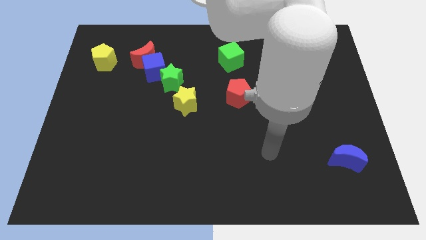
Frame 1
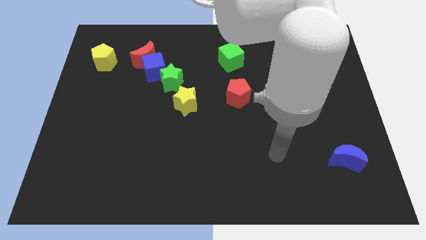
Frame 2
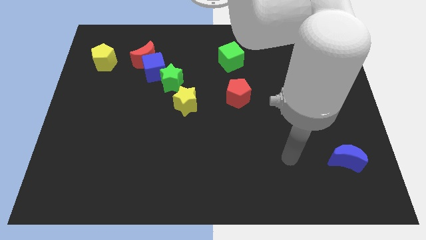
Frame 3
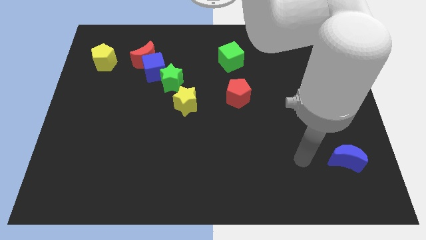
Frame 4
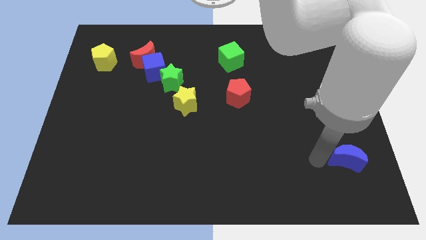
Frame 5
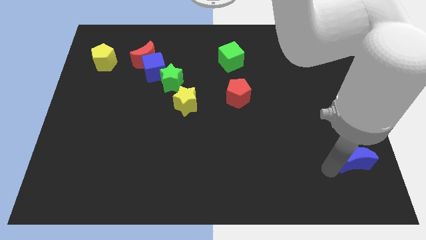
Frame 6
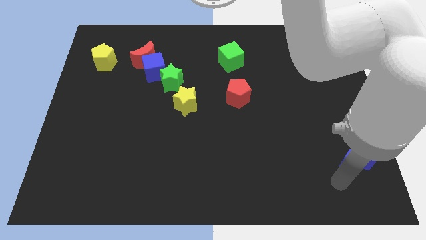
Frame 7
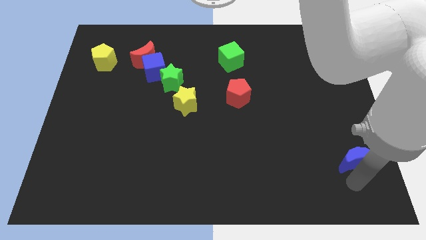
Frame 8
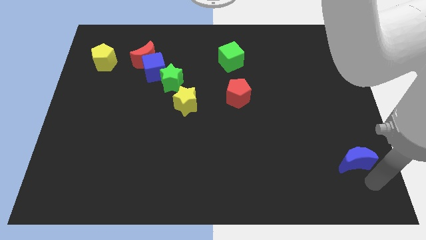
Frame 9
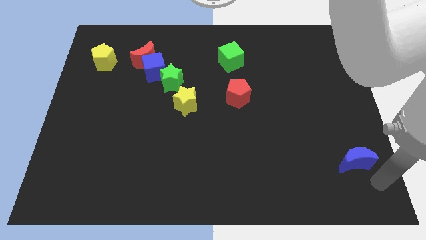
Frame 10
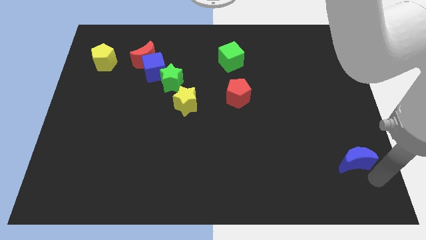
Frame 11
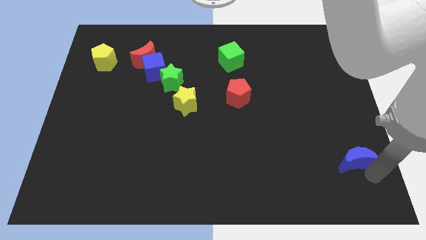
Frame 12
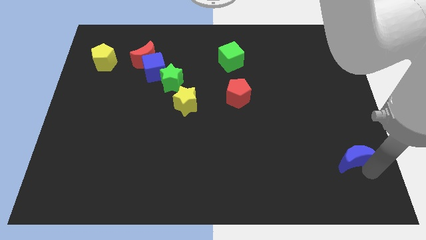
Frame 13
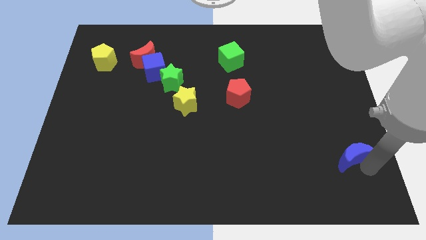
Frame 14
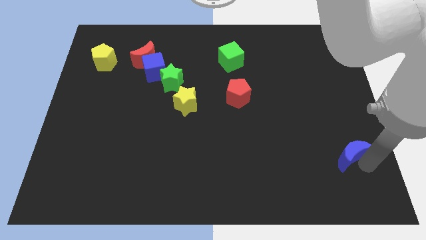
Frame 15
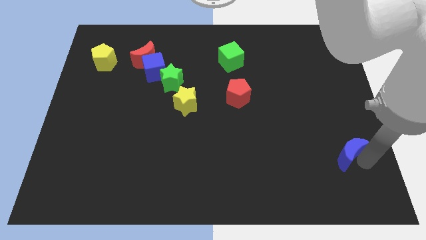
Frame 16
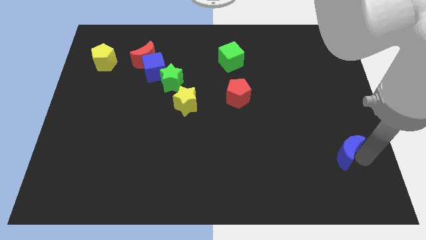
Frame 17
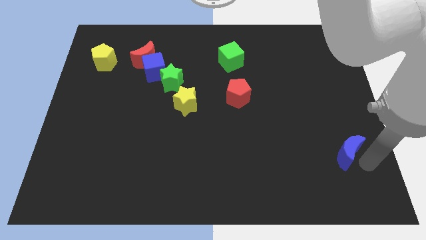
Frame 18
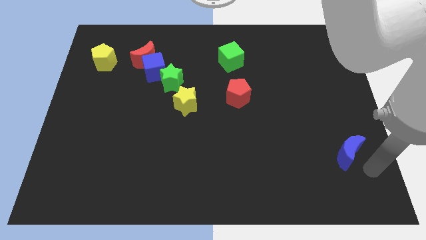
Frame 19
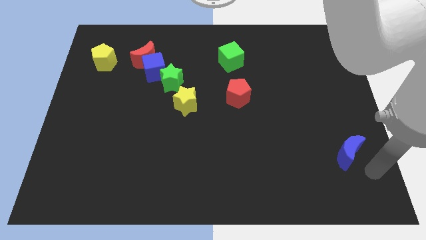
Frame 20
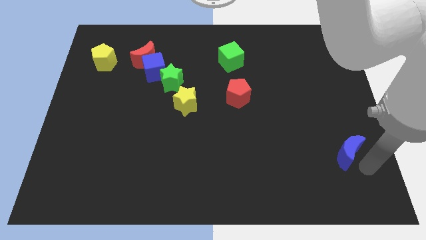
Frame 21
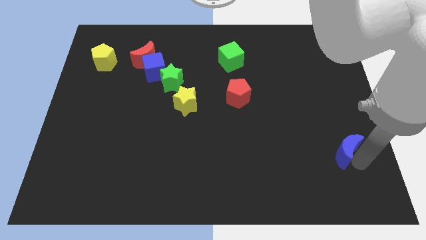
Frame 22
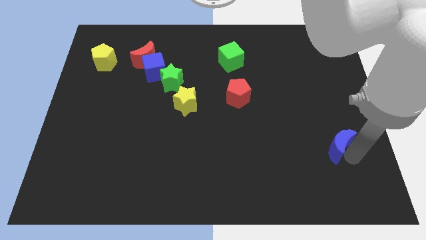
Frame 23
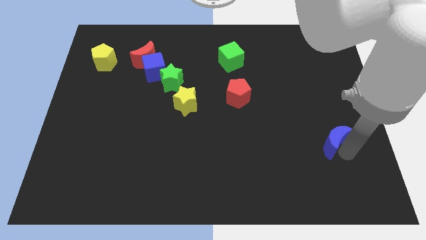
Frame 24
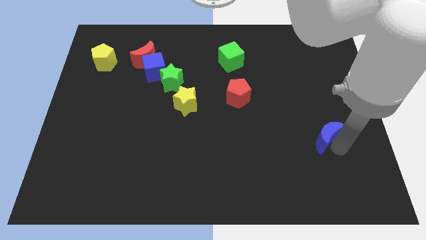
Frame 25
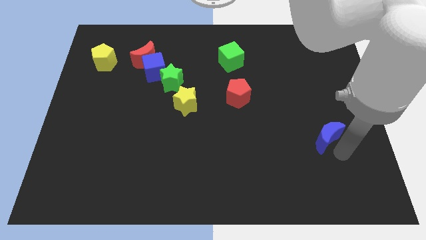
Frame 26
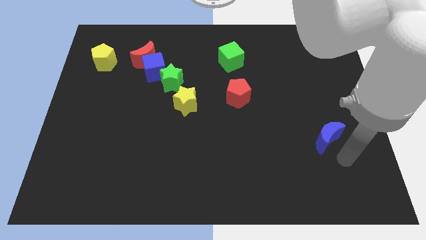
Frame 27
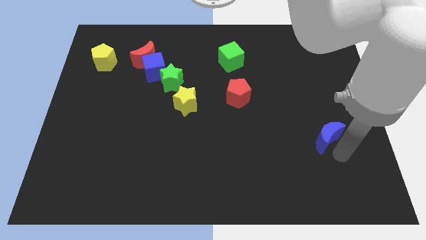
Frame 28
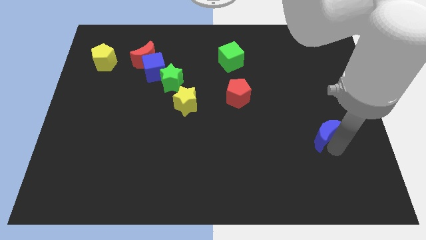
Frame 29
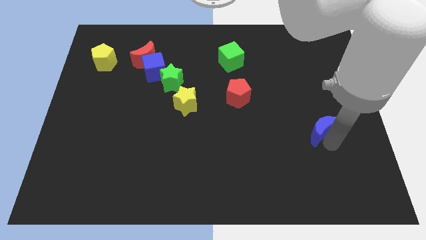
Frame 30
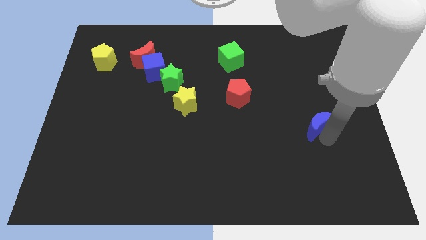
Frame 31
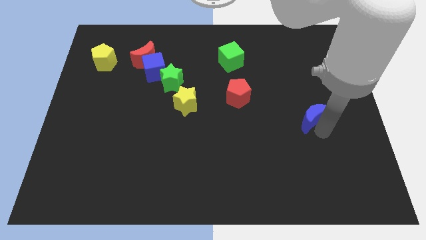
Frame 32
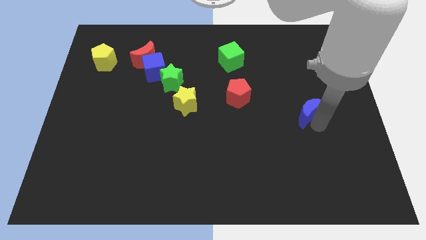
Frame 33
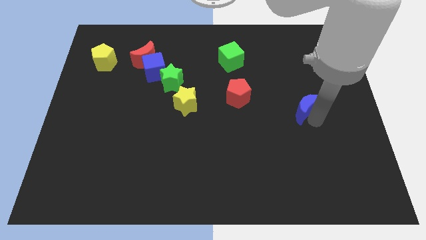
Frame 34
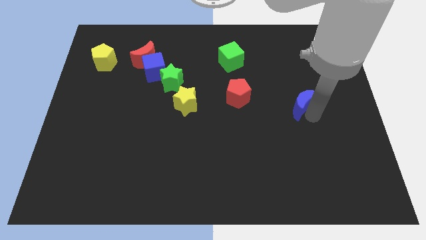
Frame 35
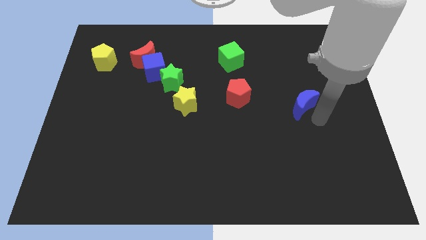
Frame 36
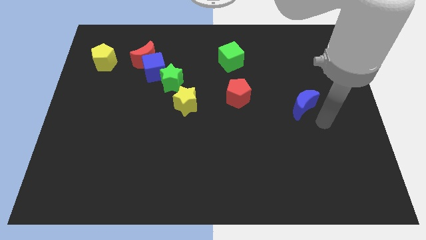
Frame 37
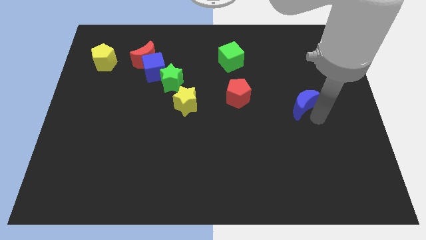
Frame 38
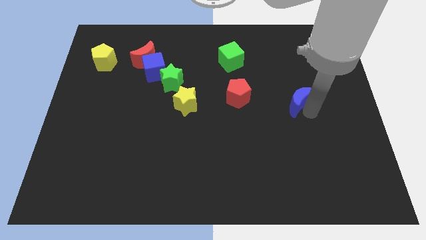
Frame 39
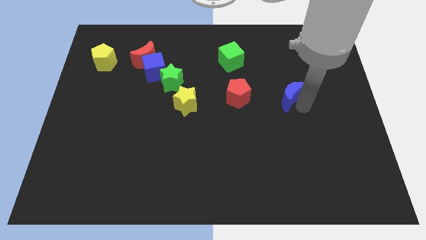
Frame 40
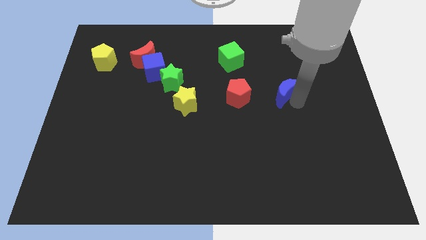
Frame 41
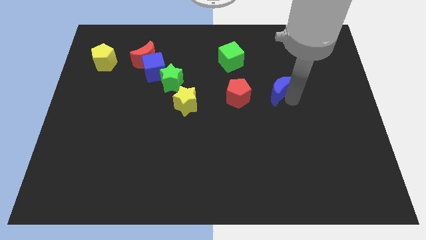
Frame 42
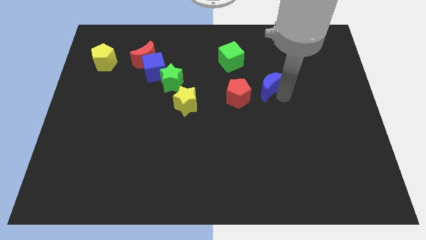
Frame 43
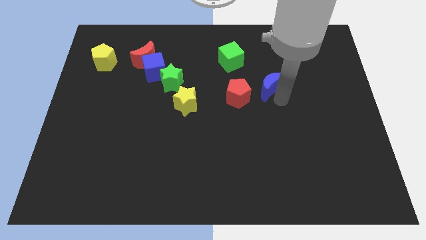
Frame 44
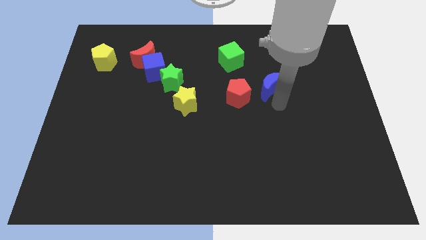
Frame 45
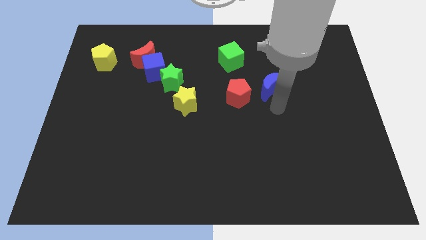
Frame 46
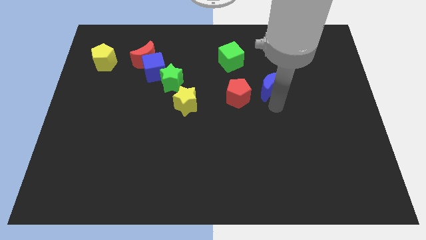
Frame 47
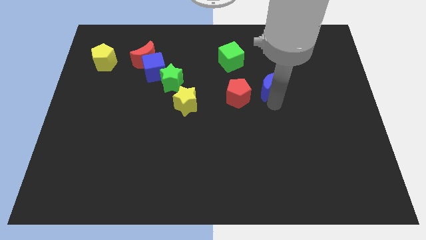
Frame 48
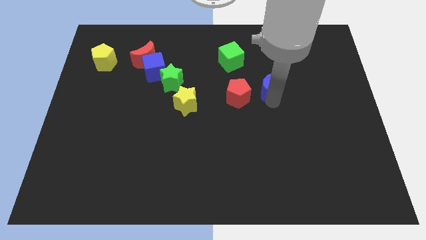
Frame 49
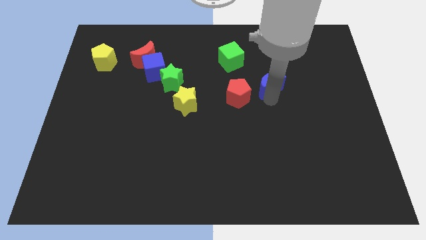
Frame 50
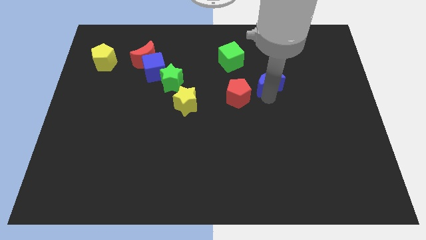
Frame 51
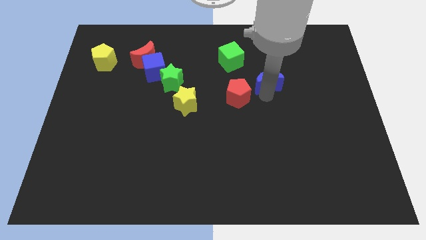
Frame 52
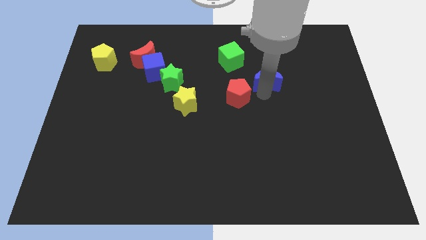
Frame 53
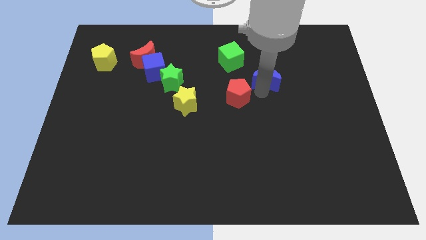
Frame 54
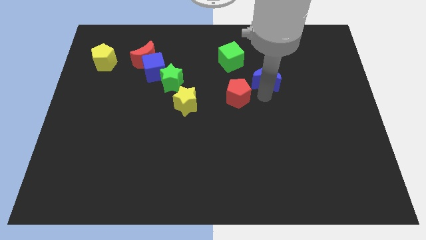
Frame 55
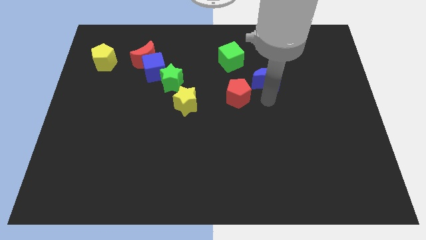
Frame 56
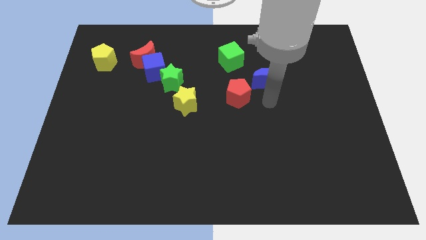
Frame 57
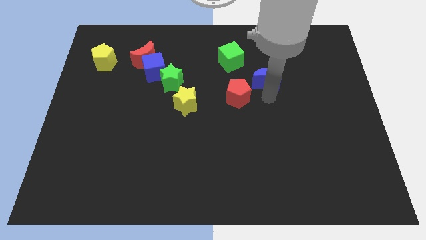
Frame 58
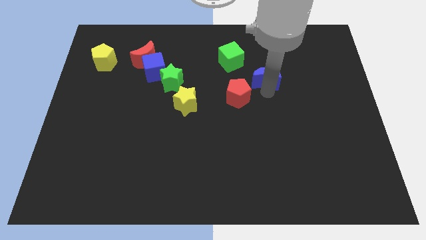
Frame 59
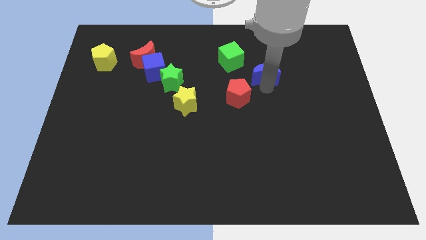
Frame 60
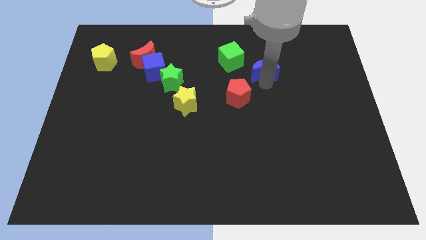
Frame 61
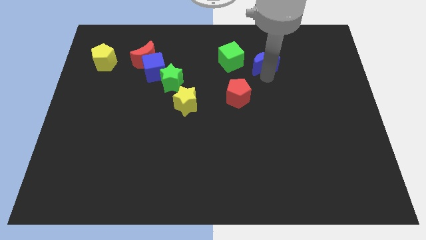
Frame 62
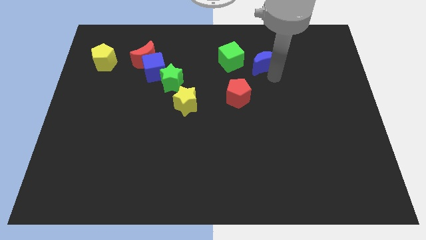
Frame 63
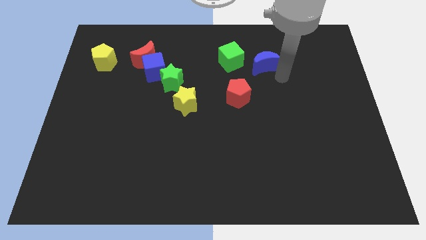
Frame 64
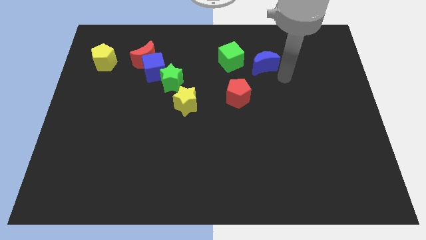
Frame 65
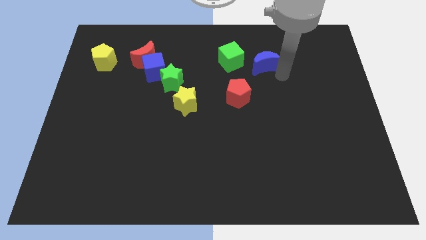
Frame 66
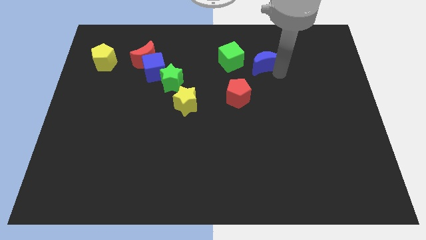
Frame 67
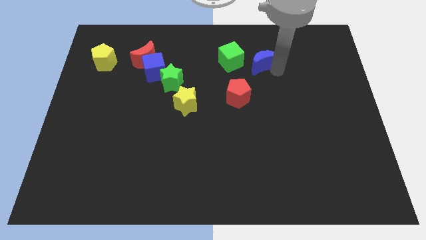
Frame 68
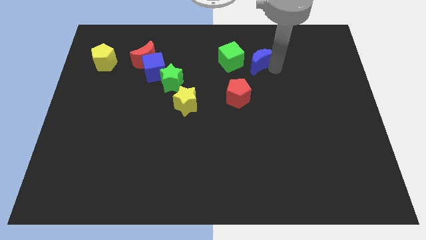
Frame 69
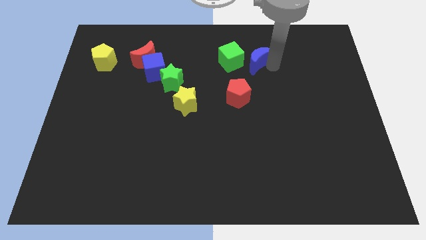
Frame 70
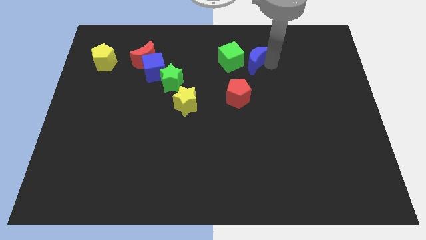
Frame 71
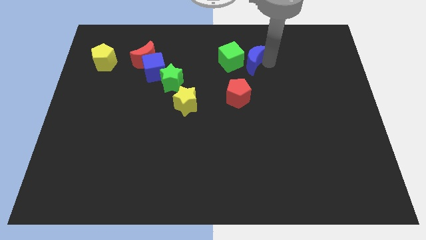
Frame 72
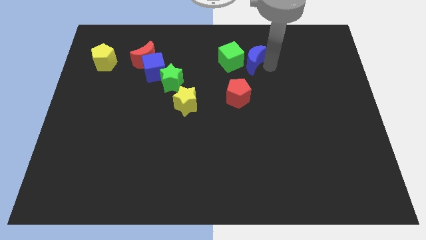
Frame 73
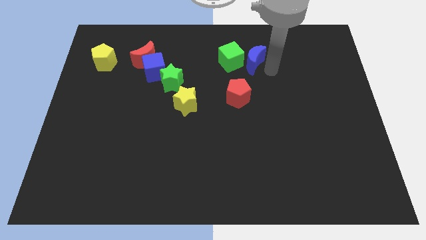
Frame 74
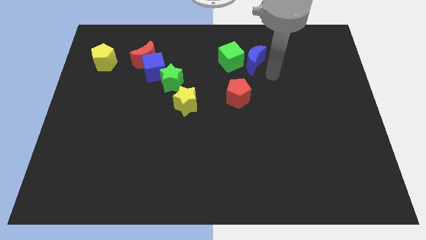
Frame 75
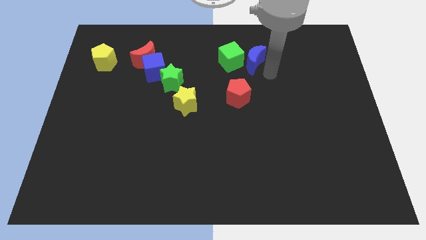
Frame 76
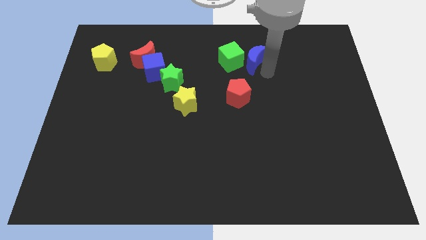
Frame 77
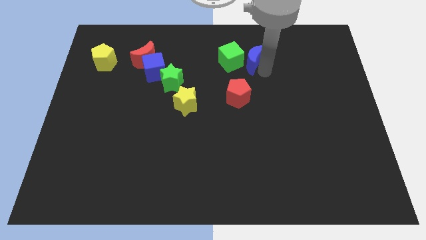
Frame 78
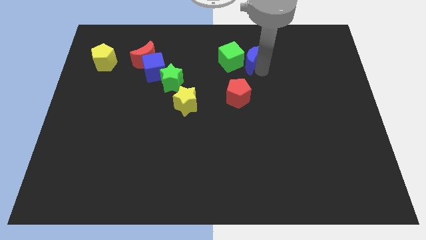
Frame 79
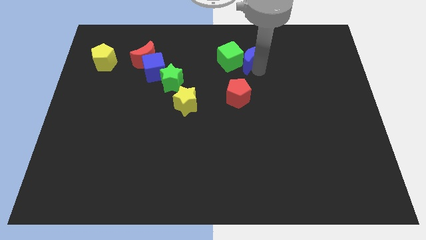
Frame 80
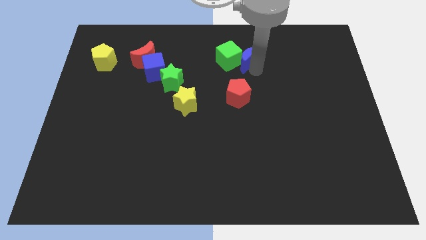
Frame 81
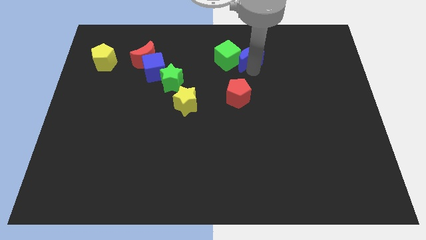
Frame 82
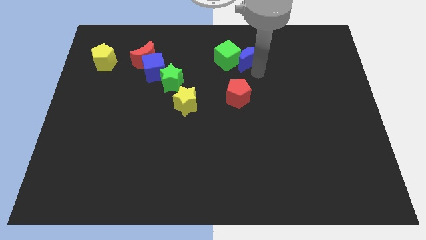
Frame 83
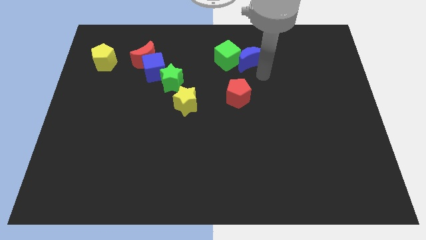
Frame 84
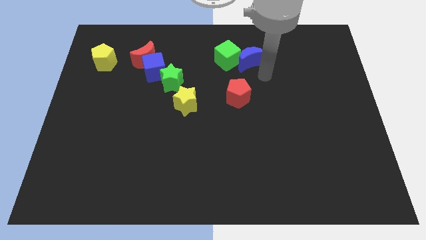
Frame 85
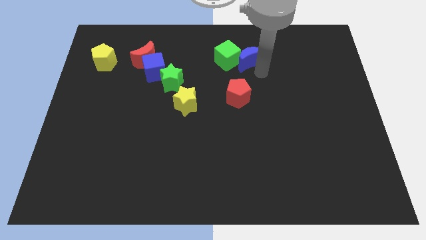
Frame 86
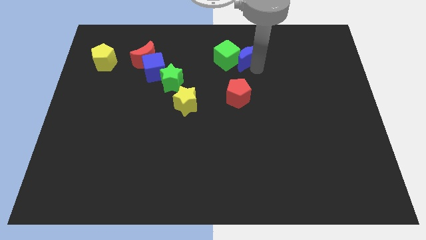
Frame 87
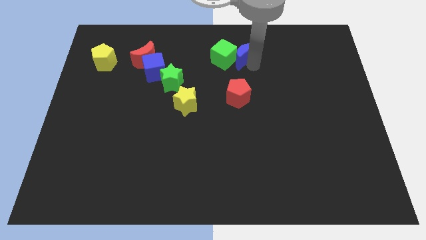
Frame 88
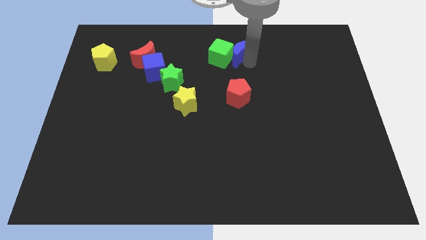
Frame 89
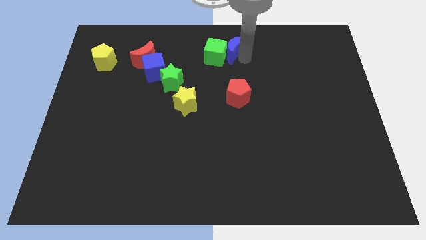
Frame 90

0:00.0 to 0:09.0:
slide the blue moon to the towards your base
